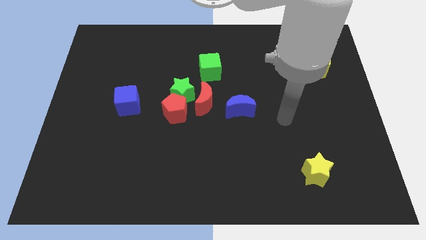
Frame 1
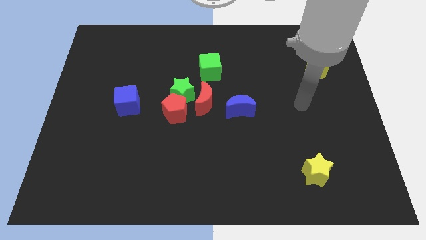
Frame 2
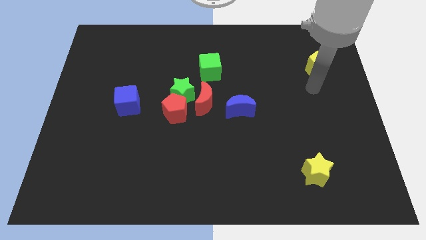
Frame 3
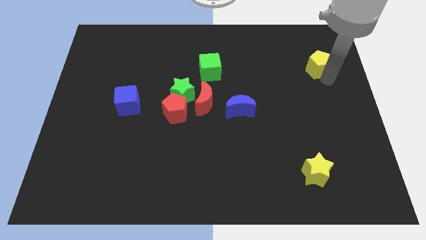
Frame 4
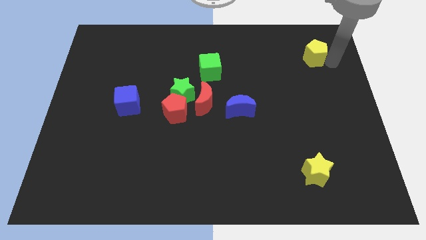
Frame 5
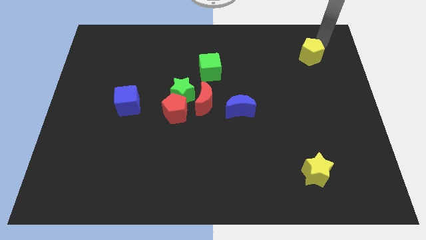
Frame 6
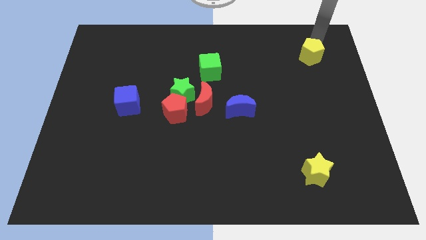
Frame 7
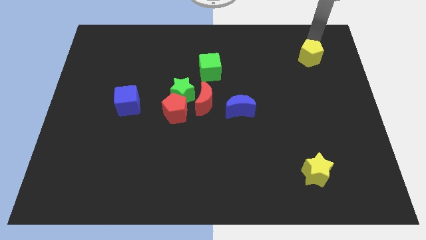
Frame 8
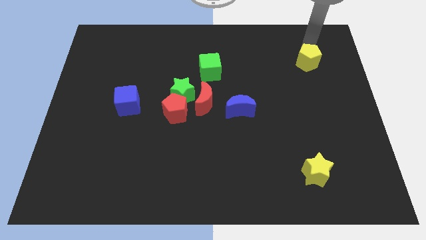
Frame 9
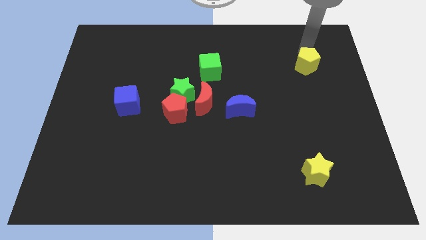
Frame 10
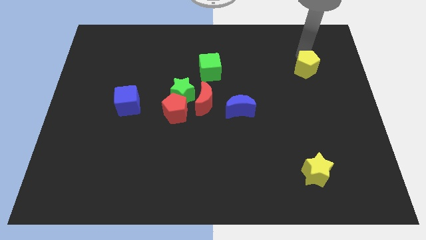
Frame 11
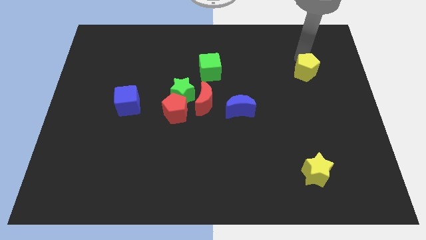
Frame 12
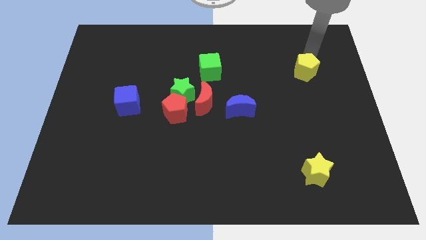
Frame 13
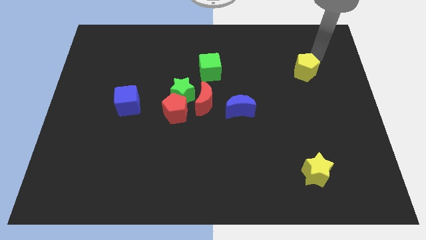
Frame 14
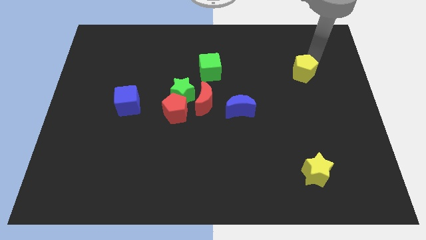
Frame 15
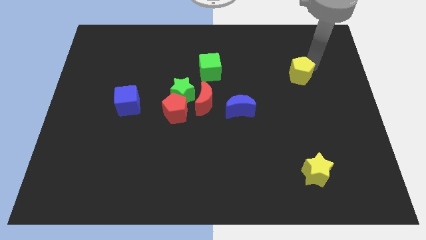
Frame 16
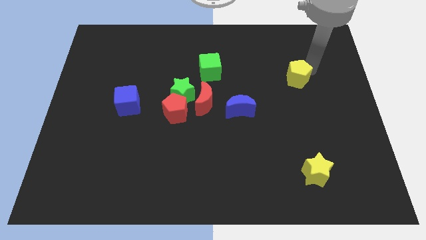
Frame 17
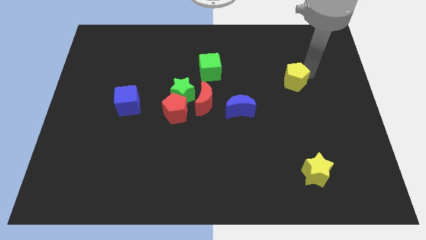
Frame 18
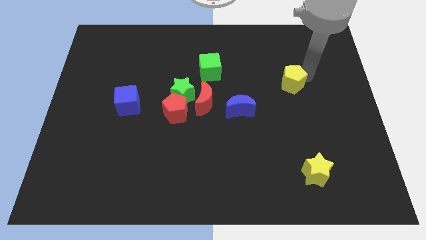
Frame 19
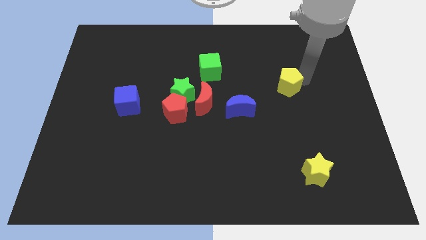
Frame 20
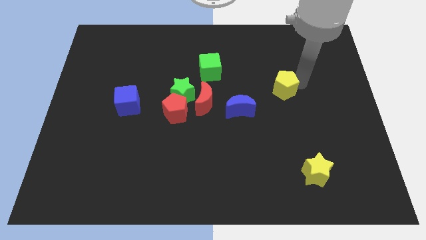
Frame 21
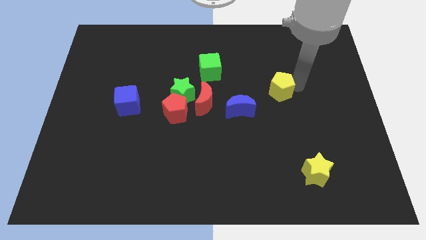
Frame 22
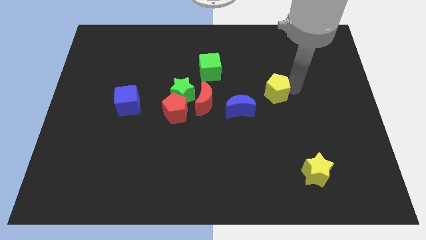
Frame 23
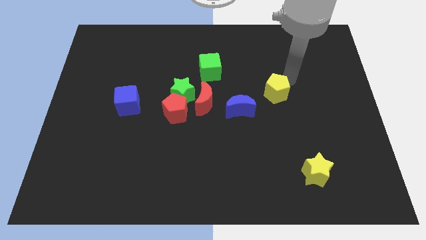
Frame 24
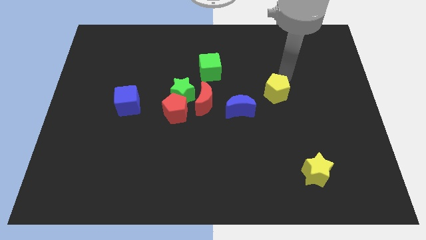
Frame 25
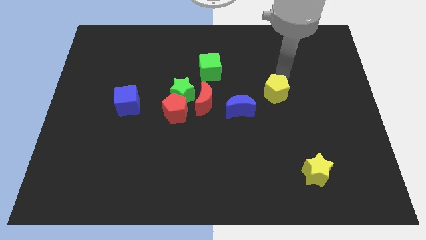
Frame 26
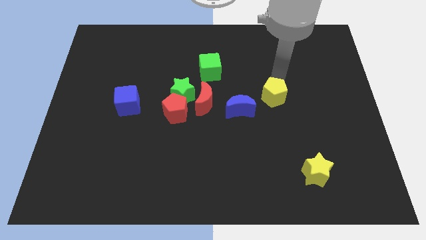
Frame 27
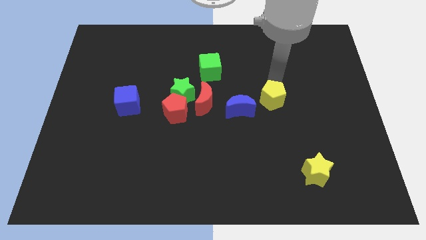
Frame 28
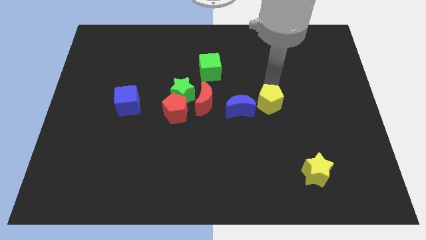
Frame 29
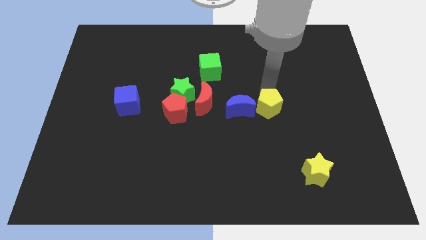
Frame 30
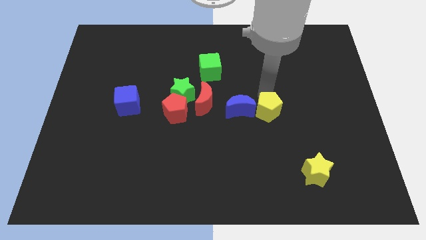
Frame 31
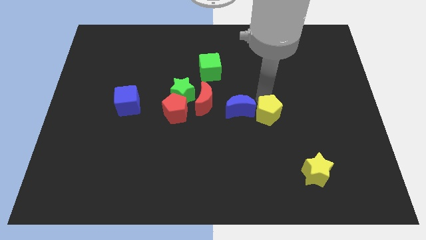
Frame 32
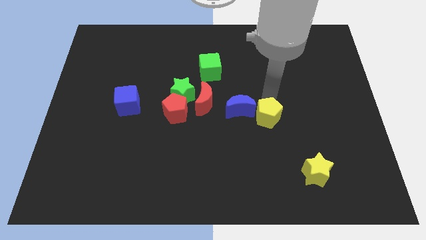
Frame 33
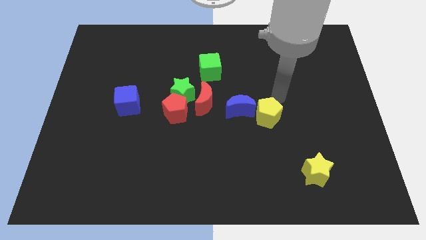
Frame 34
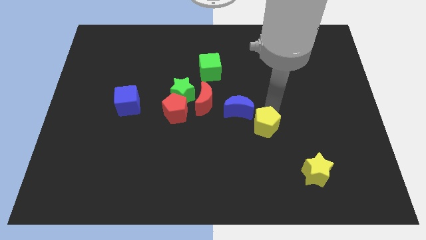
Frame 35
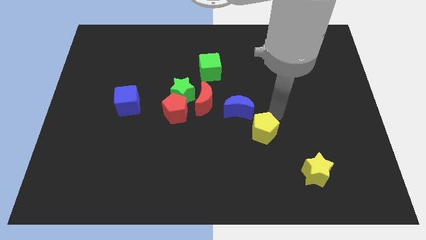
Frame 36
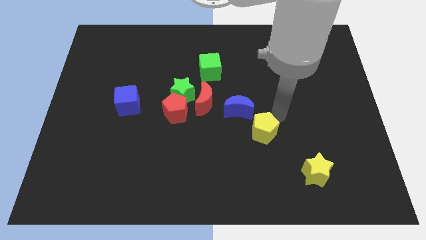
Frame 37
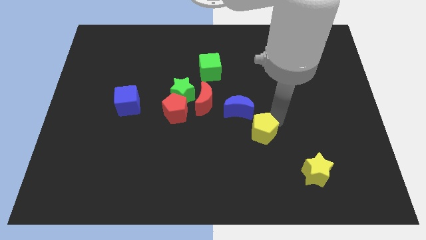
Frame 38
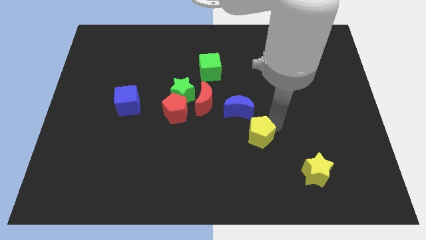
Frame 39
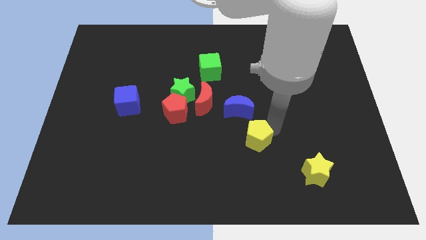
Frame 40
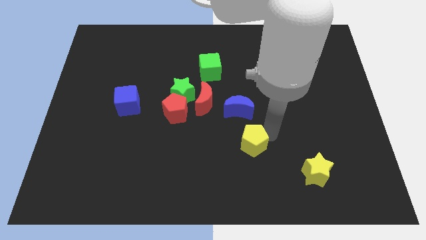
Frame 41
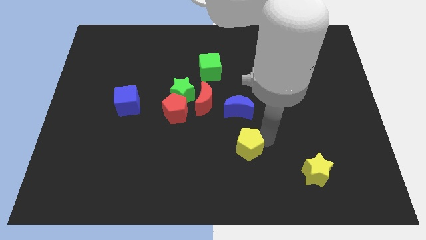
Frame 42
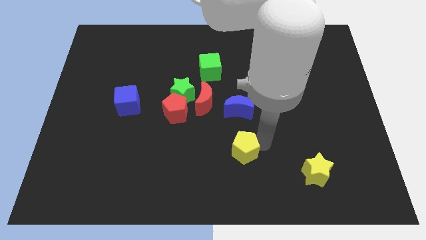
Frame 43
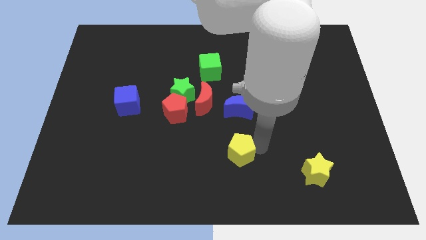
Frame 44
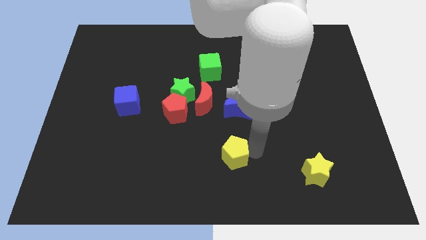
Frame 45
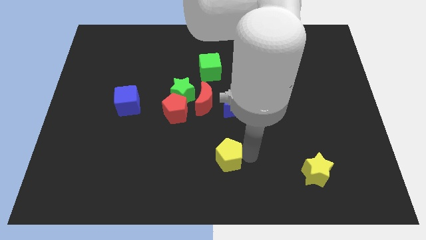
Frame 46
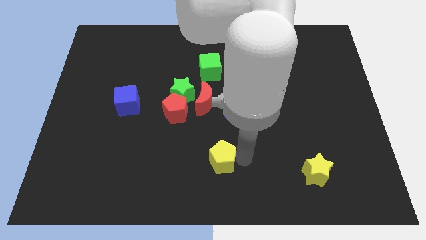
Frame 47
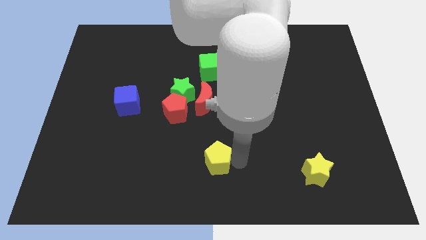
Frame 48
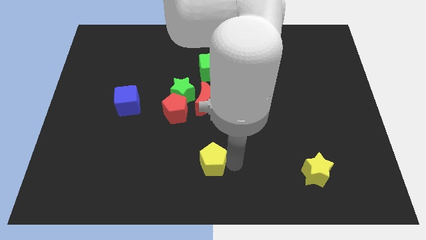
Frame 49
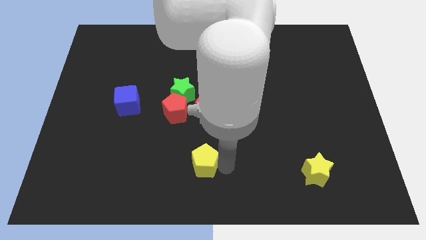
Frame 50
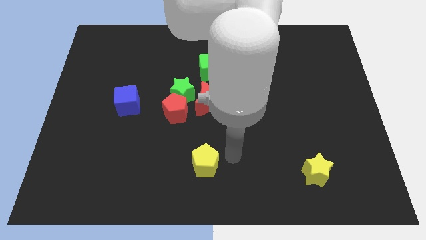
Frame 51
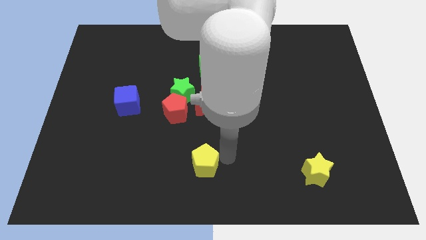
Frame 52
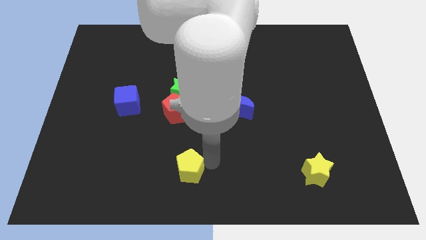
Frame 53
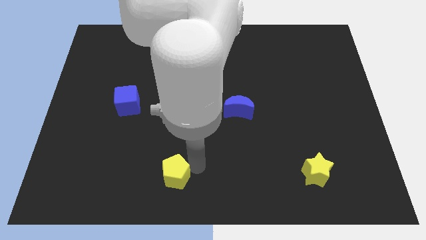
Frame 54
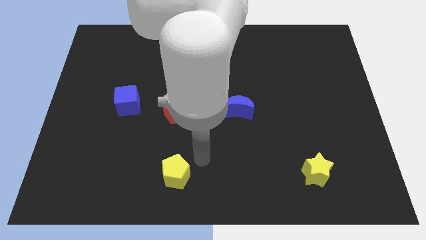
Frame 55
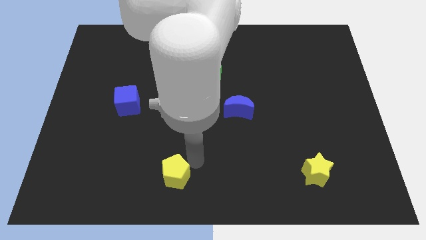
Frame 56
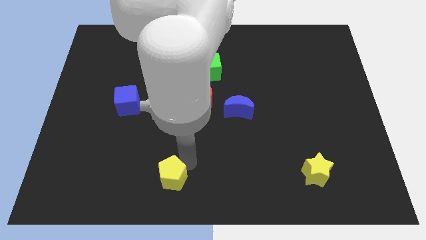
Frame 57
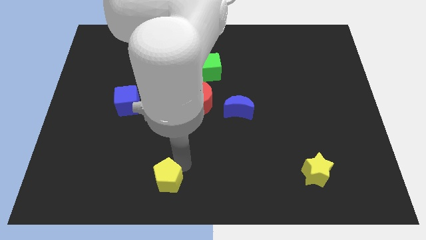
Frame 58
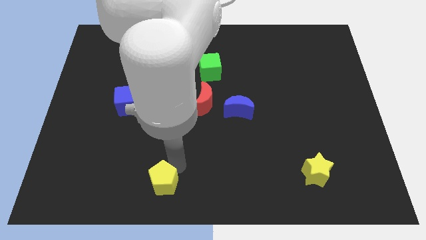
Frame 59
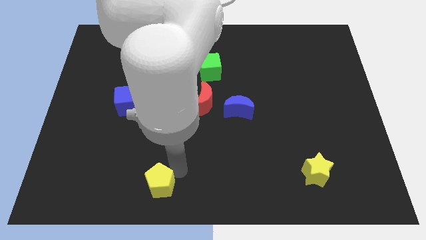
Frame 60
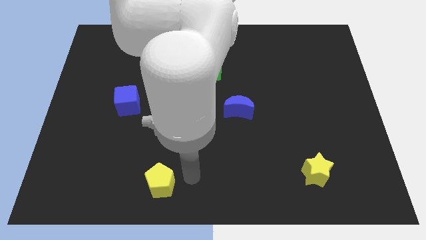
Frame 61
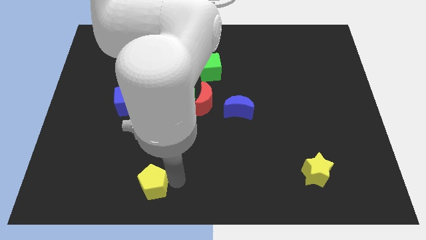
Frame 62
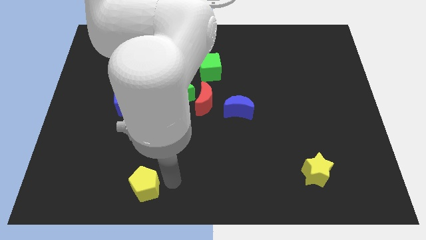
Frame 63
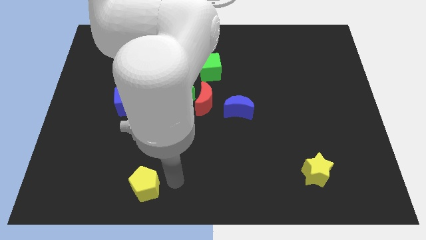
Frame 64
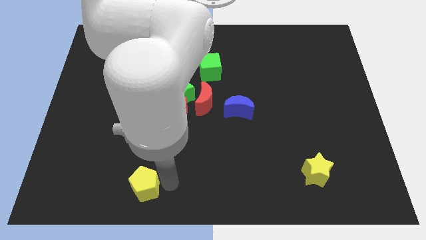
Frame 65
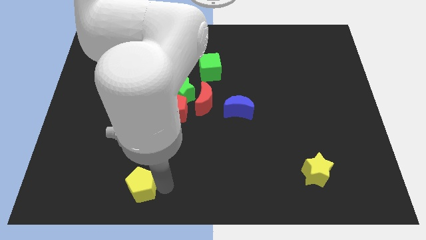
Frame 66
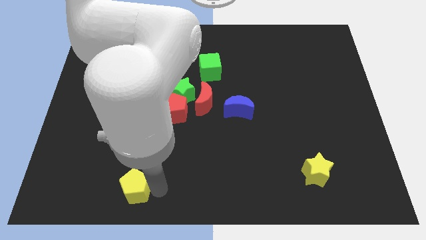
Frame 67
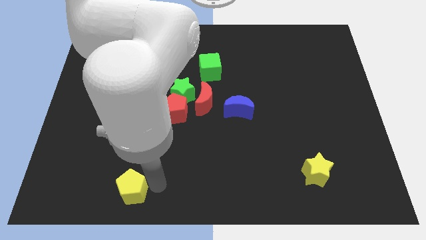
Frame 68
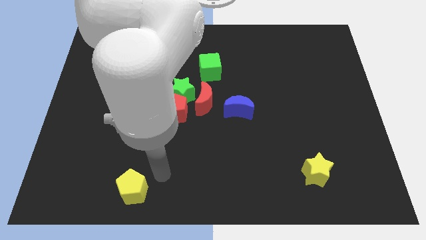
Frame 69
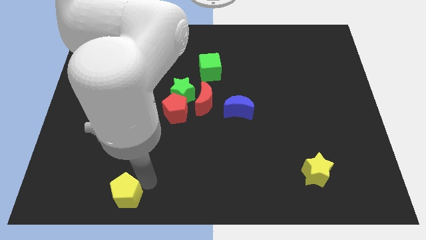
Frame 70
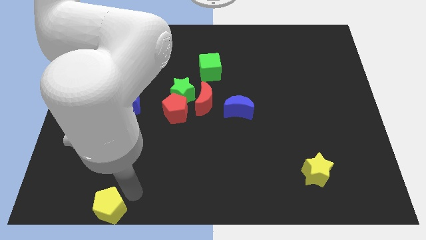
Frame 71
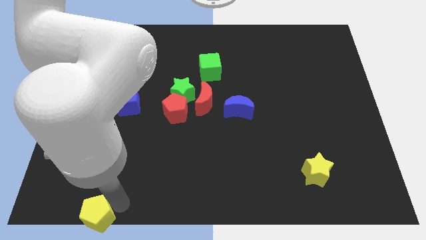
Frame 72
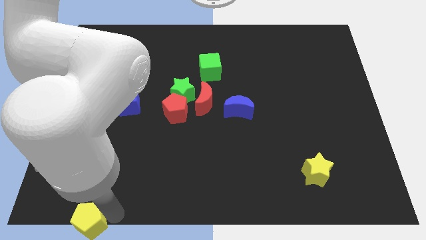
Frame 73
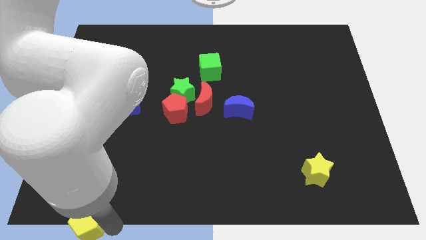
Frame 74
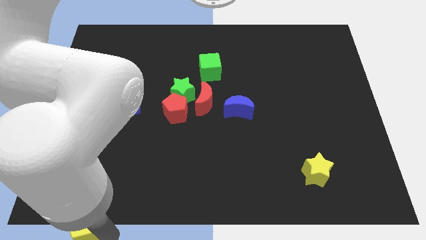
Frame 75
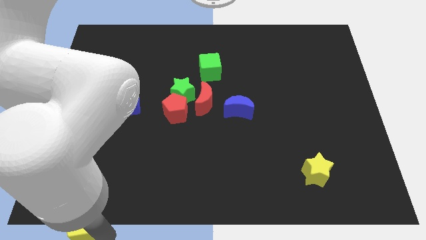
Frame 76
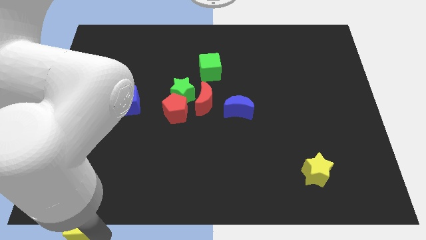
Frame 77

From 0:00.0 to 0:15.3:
slide the yellow pentagon to the lower left corner
